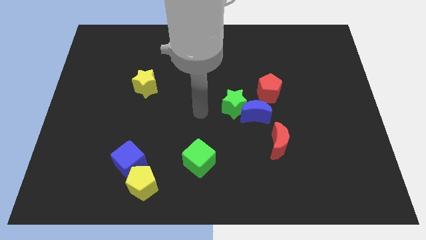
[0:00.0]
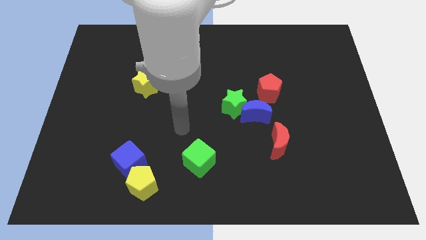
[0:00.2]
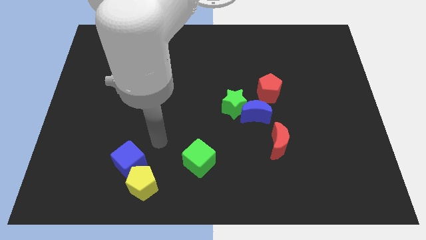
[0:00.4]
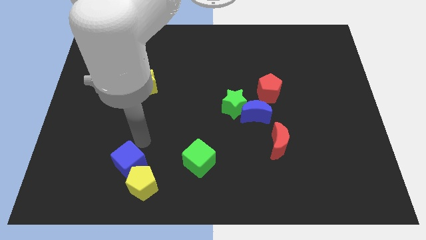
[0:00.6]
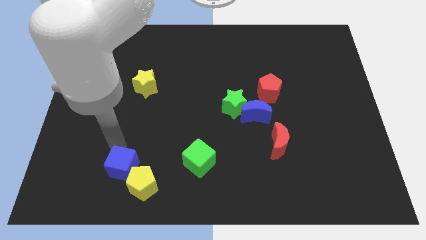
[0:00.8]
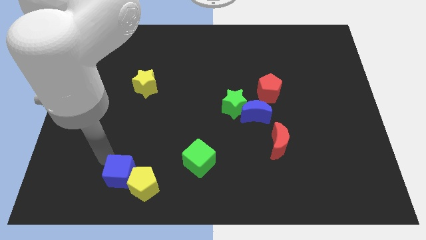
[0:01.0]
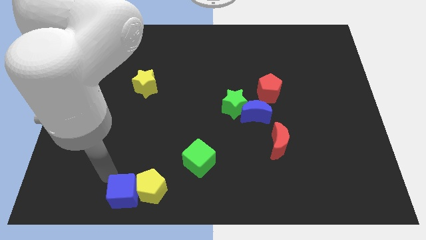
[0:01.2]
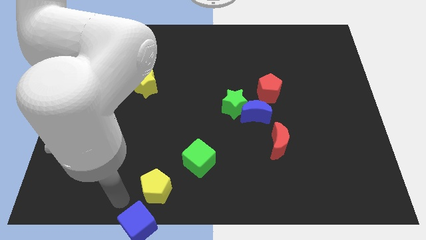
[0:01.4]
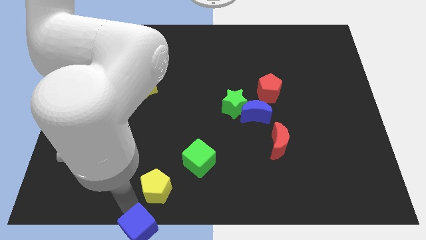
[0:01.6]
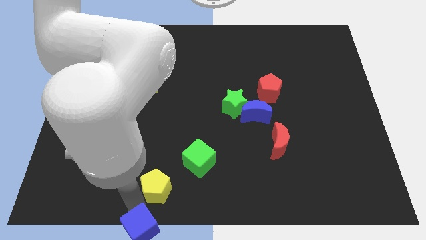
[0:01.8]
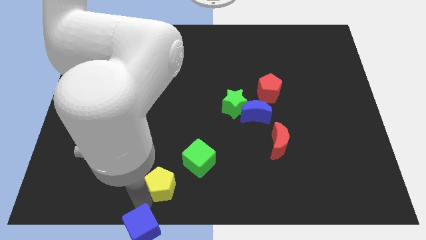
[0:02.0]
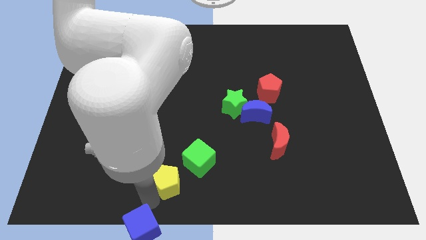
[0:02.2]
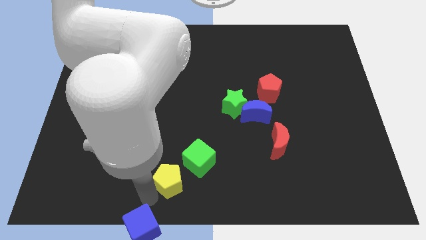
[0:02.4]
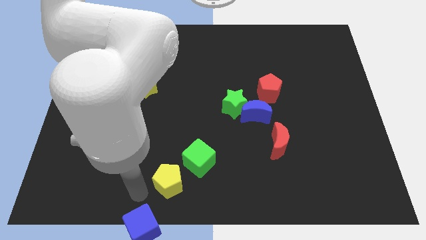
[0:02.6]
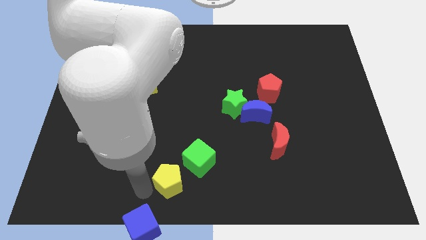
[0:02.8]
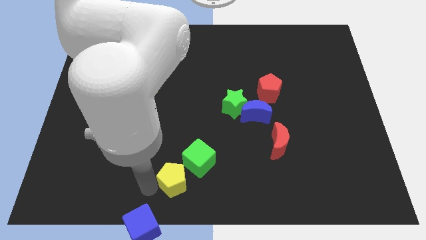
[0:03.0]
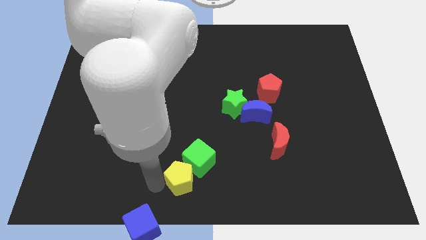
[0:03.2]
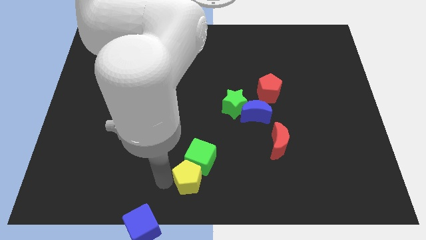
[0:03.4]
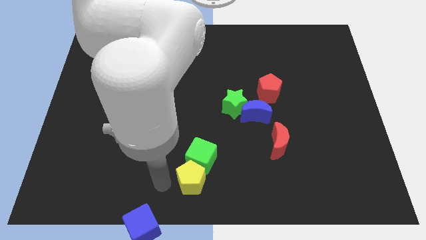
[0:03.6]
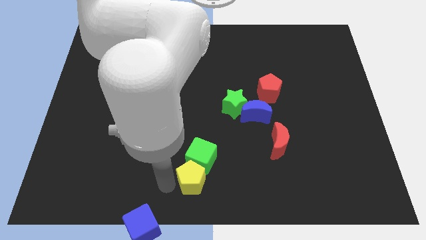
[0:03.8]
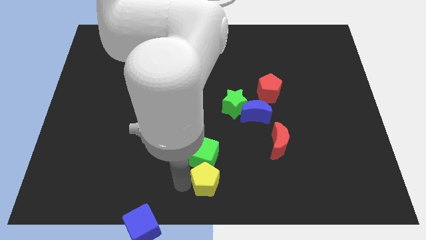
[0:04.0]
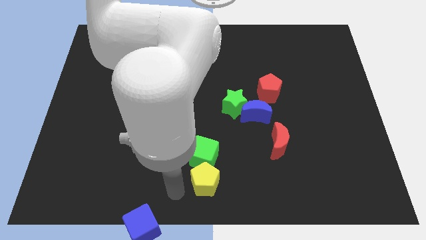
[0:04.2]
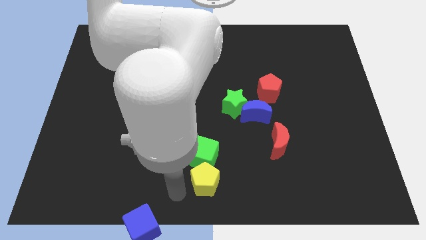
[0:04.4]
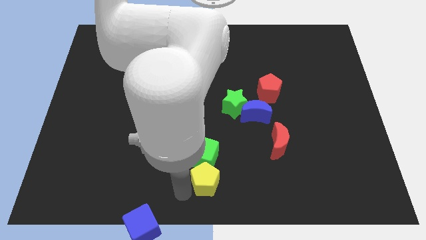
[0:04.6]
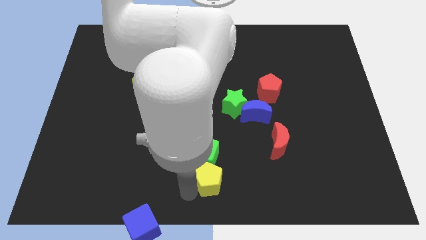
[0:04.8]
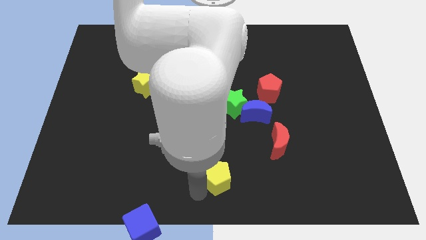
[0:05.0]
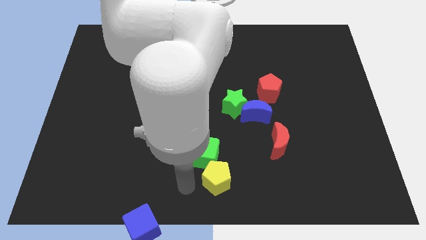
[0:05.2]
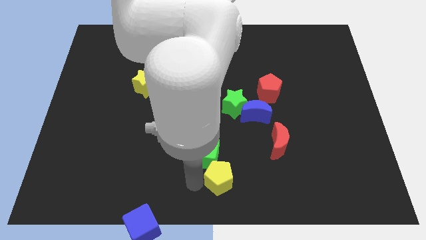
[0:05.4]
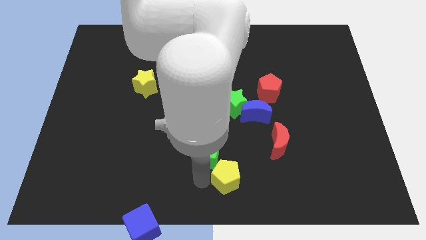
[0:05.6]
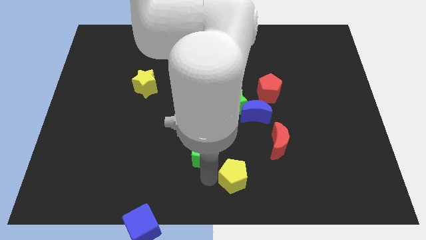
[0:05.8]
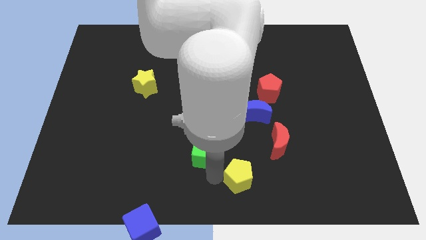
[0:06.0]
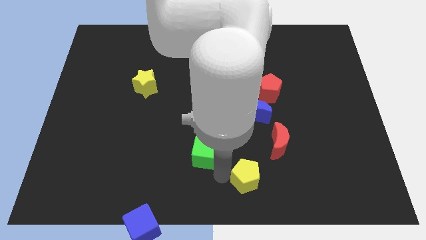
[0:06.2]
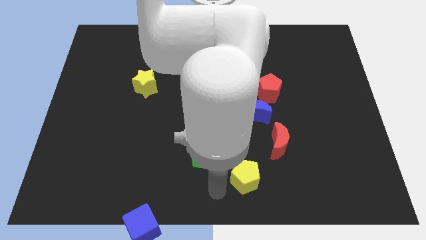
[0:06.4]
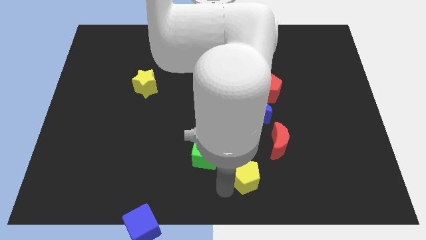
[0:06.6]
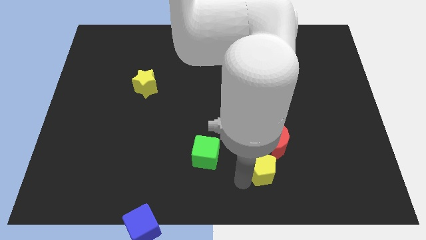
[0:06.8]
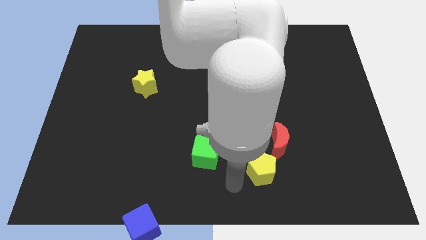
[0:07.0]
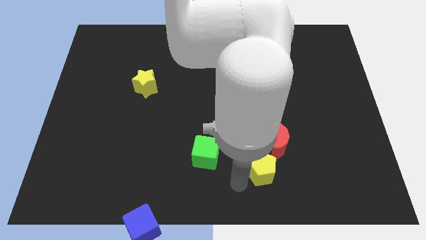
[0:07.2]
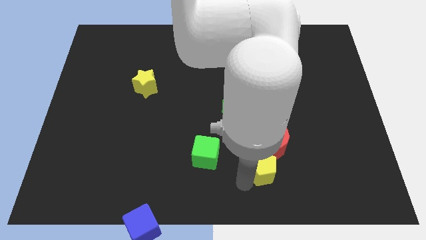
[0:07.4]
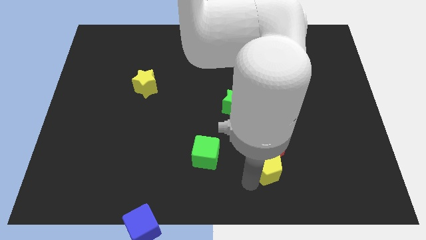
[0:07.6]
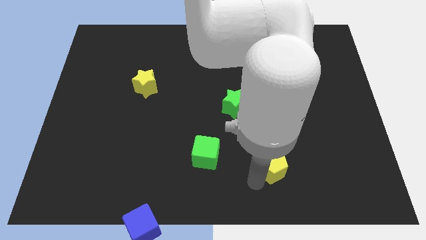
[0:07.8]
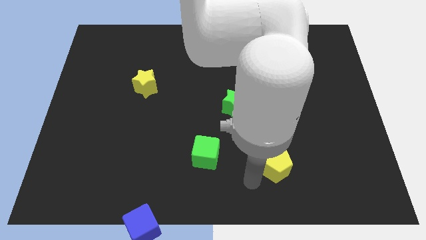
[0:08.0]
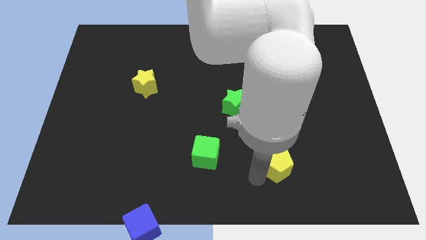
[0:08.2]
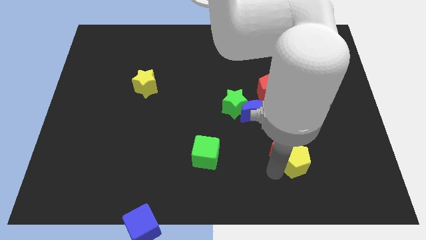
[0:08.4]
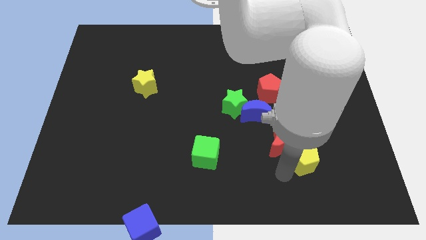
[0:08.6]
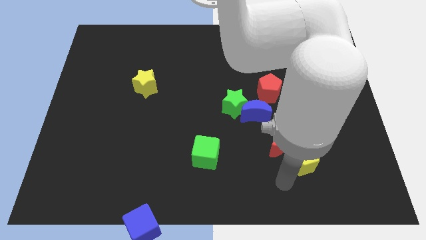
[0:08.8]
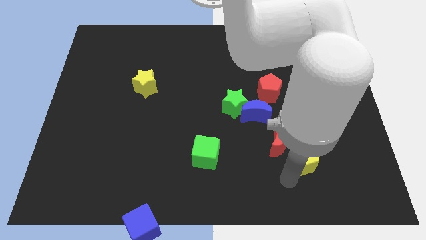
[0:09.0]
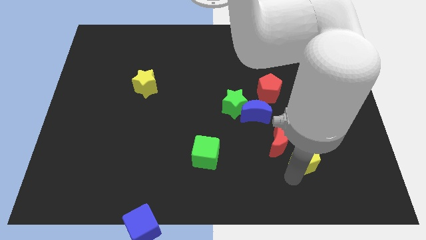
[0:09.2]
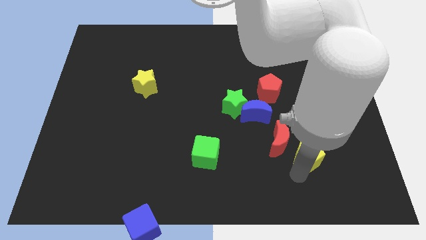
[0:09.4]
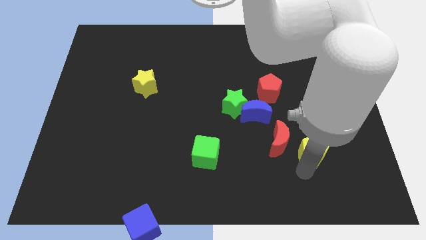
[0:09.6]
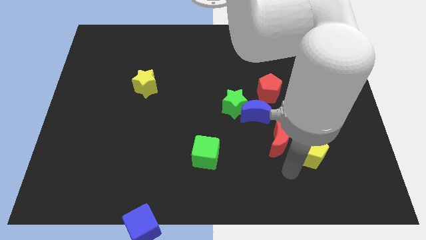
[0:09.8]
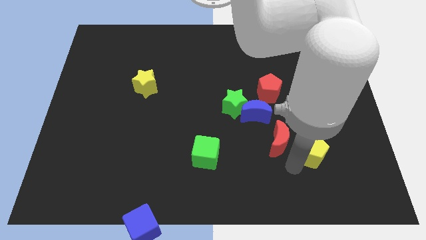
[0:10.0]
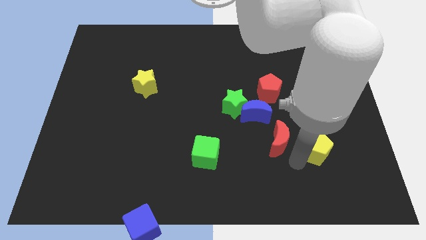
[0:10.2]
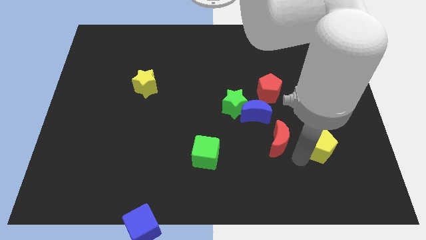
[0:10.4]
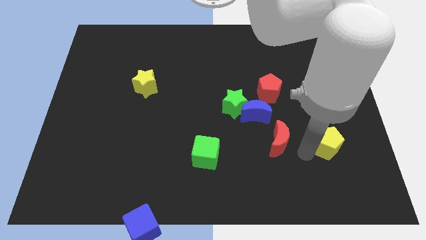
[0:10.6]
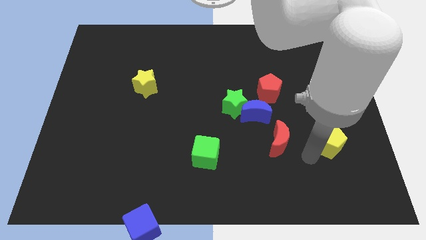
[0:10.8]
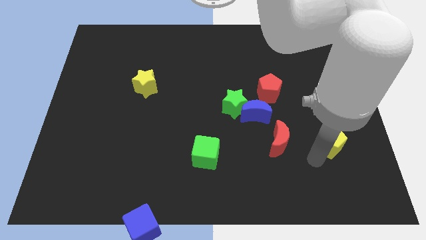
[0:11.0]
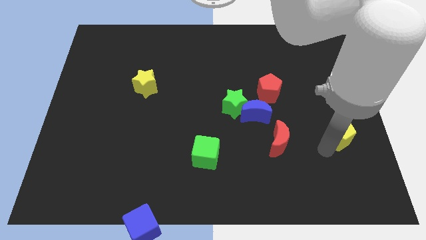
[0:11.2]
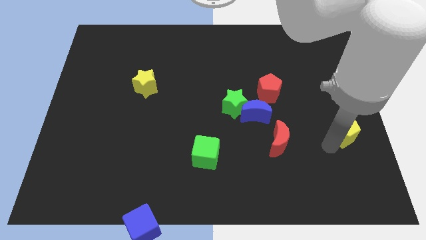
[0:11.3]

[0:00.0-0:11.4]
slide the yellow pentagon to the right side

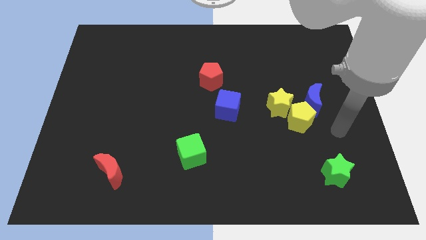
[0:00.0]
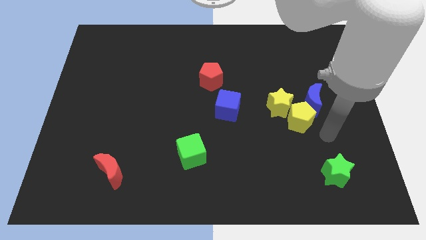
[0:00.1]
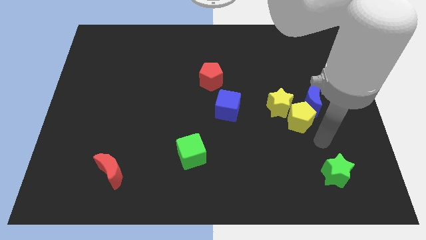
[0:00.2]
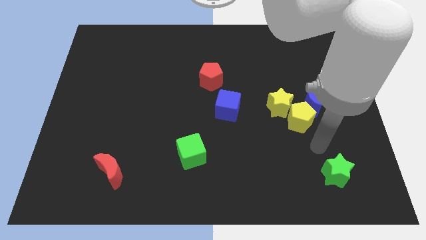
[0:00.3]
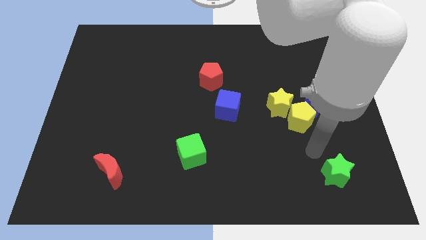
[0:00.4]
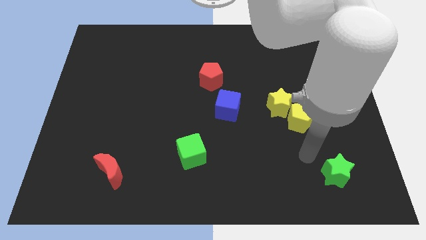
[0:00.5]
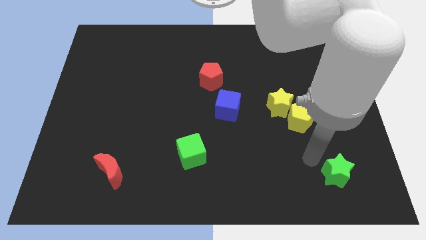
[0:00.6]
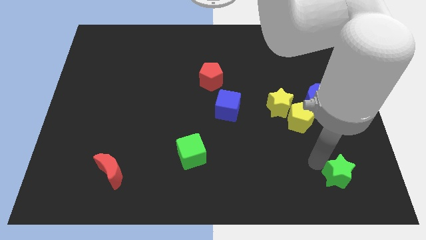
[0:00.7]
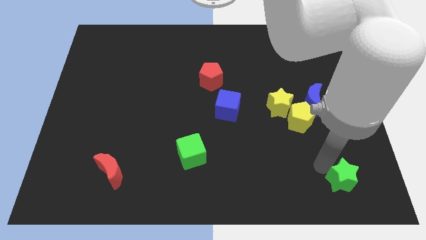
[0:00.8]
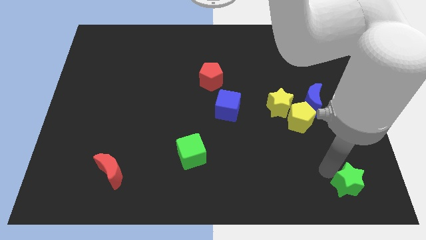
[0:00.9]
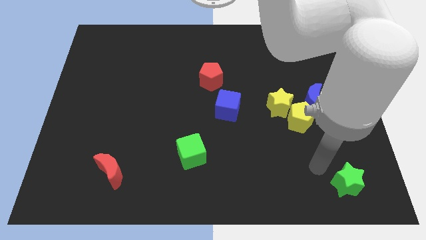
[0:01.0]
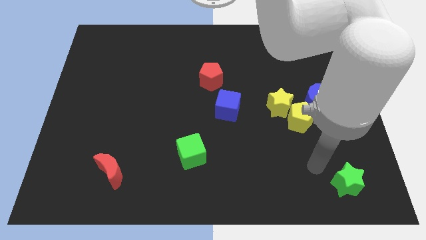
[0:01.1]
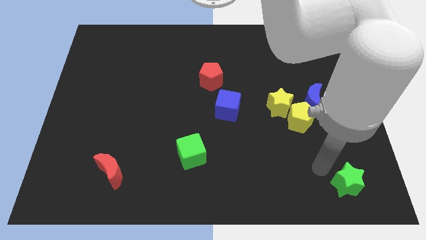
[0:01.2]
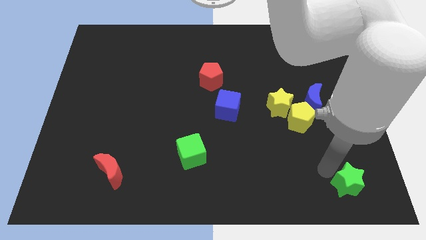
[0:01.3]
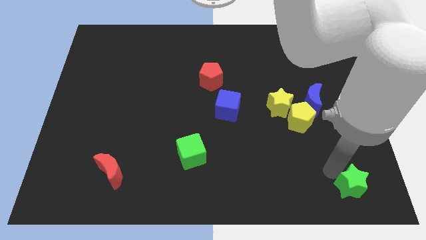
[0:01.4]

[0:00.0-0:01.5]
slide the green star to the lower right corner
